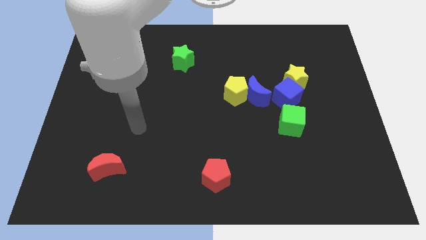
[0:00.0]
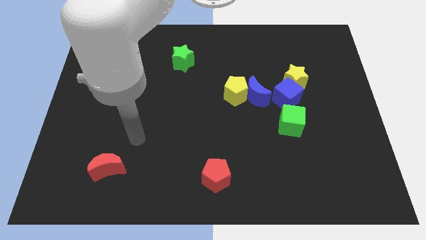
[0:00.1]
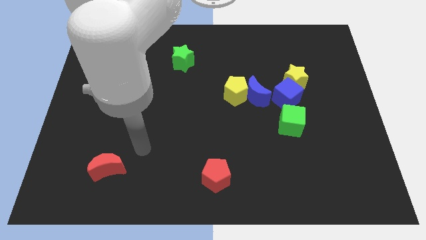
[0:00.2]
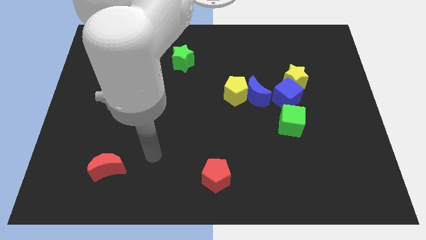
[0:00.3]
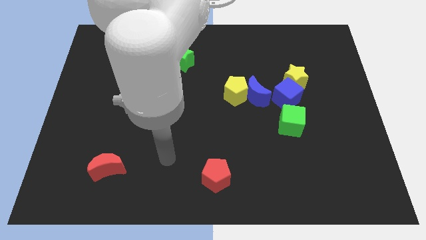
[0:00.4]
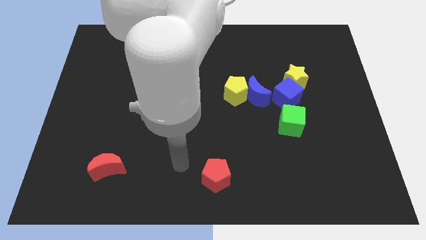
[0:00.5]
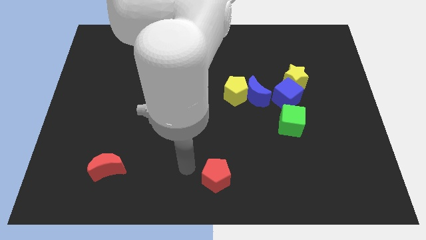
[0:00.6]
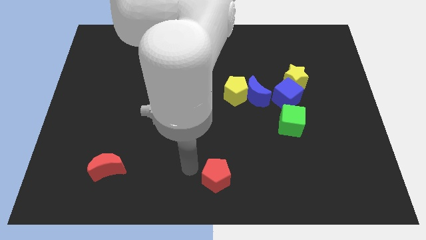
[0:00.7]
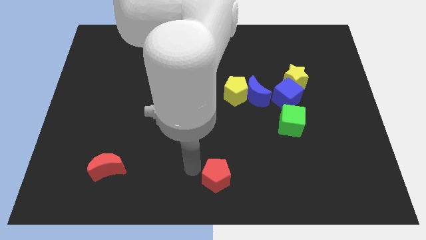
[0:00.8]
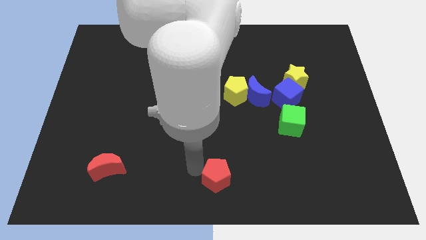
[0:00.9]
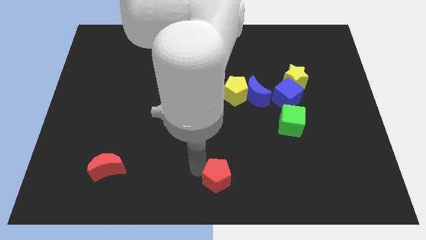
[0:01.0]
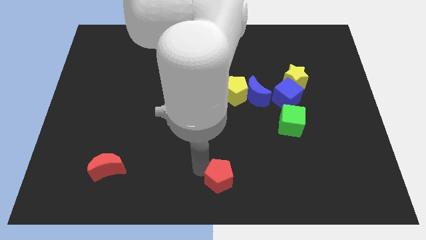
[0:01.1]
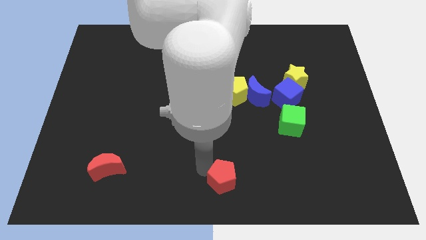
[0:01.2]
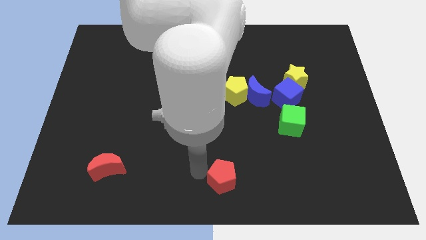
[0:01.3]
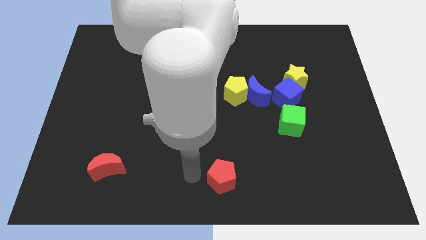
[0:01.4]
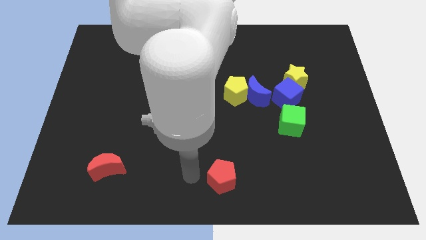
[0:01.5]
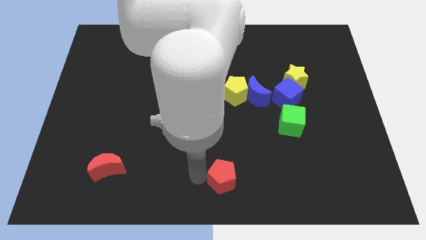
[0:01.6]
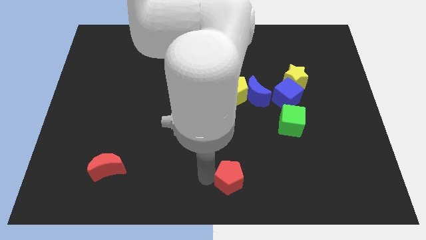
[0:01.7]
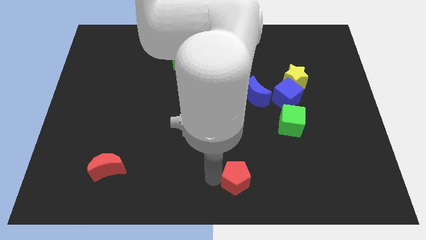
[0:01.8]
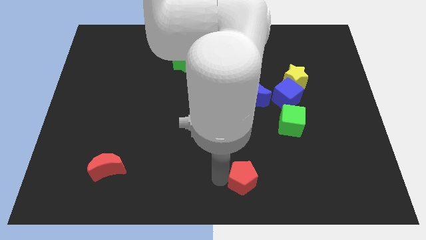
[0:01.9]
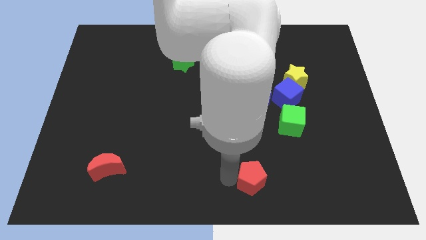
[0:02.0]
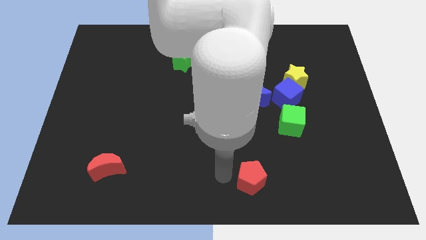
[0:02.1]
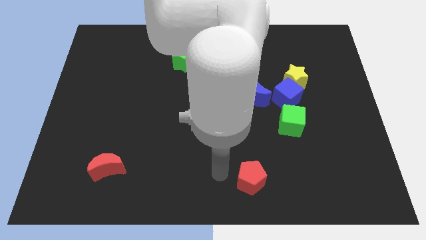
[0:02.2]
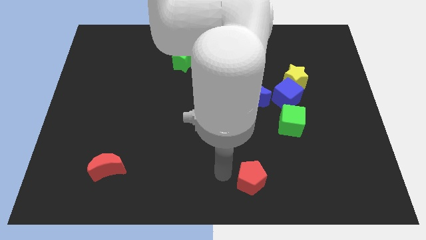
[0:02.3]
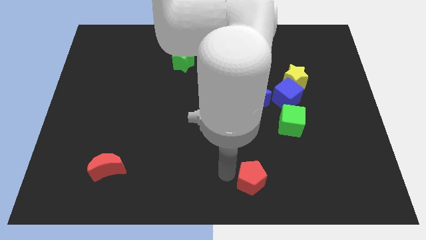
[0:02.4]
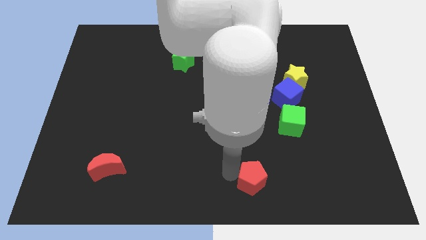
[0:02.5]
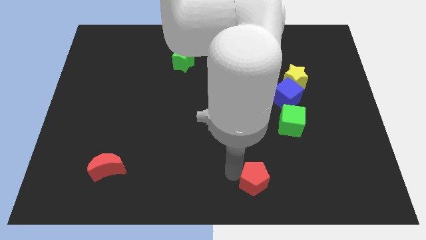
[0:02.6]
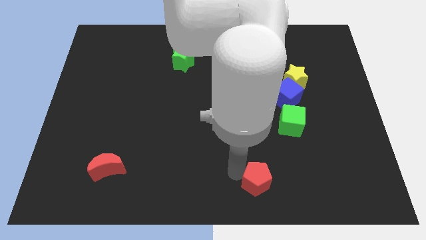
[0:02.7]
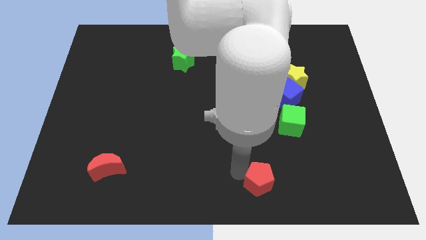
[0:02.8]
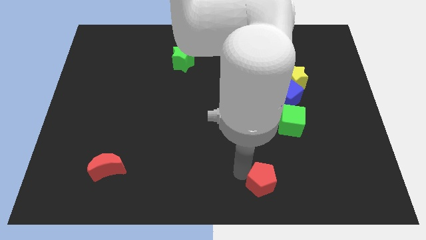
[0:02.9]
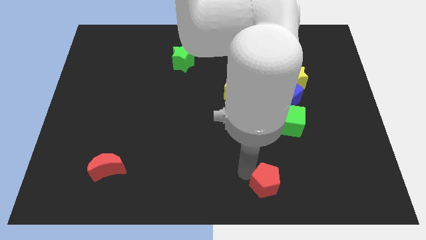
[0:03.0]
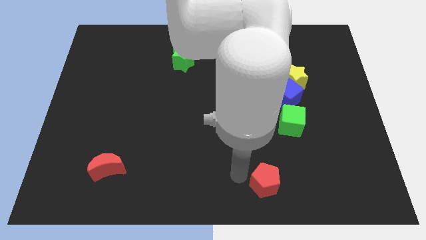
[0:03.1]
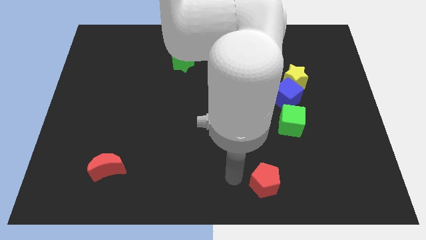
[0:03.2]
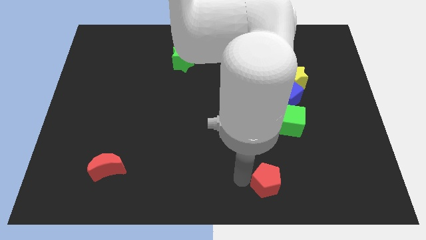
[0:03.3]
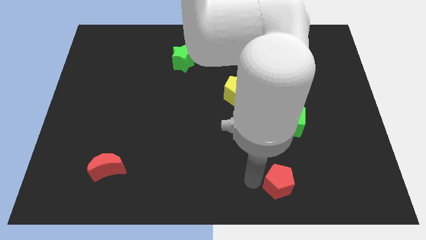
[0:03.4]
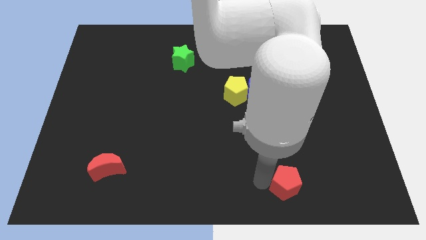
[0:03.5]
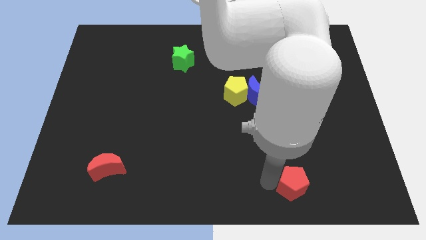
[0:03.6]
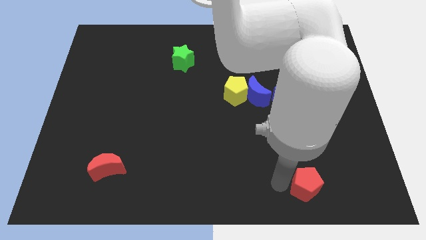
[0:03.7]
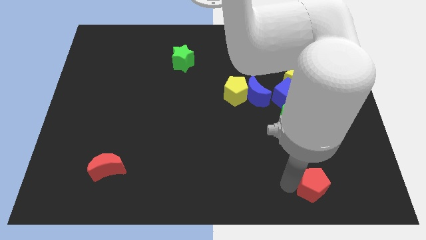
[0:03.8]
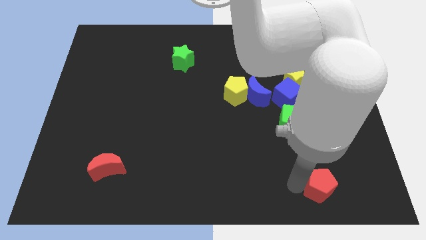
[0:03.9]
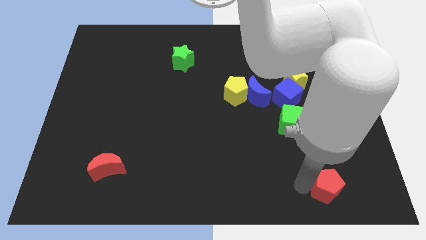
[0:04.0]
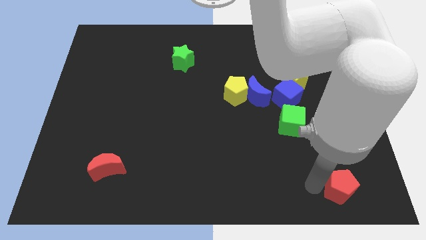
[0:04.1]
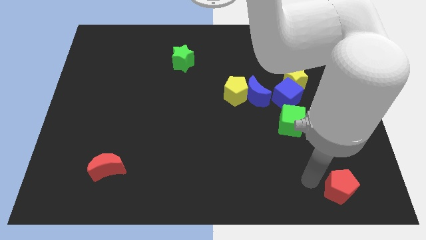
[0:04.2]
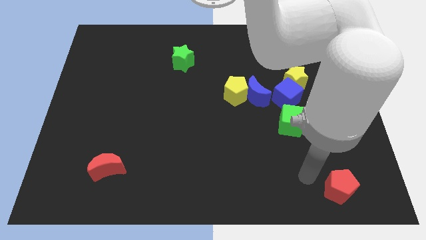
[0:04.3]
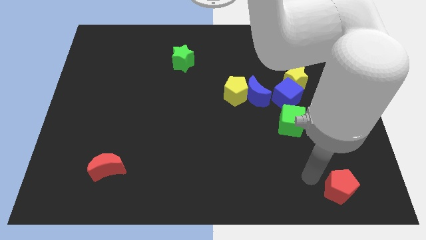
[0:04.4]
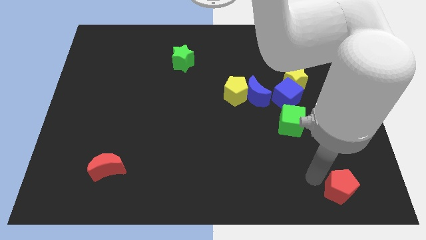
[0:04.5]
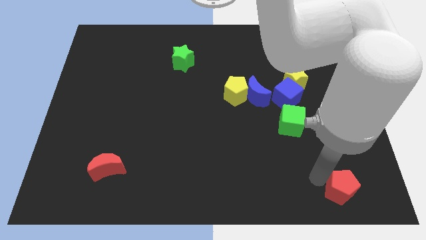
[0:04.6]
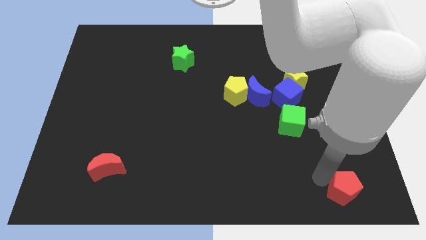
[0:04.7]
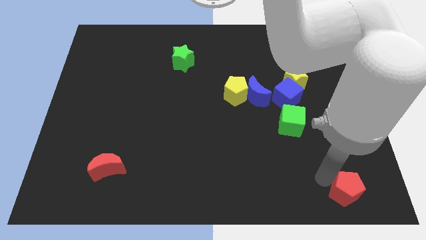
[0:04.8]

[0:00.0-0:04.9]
push the red pentagon to the bottom right of the board

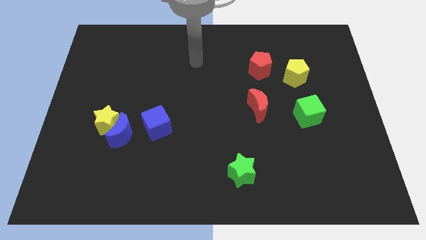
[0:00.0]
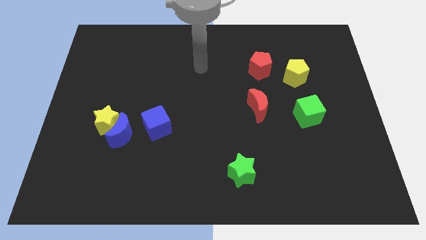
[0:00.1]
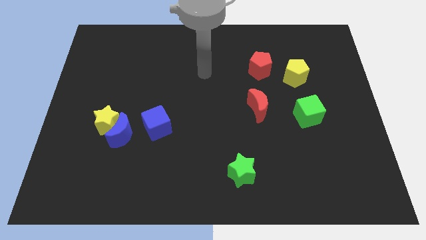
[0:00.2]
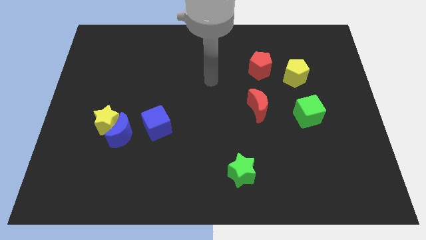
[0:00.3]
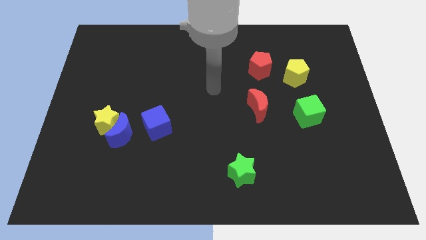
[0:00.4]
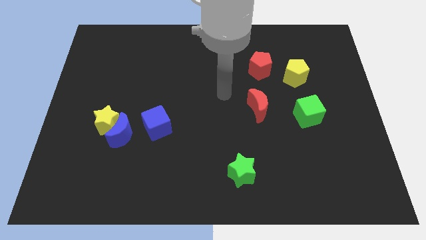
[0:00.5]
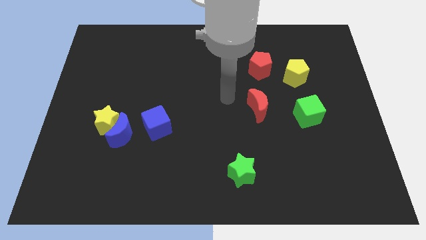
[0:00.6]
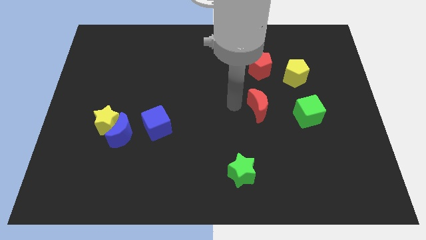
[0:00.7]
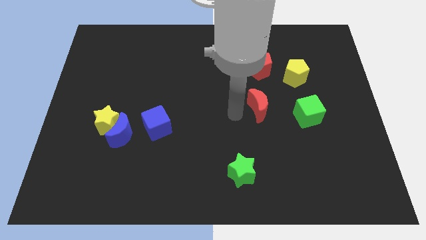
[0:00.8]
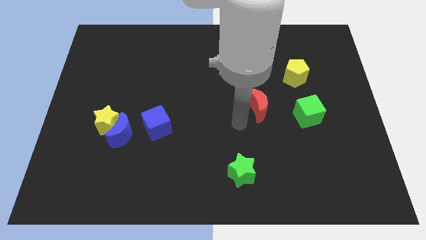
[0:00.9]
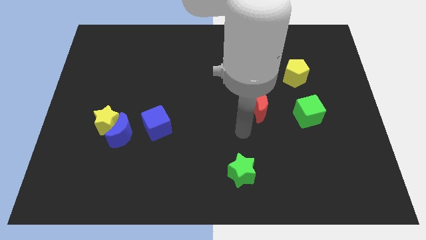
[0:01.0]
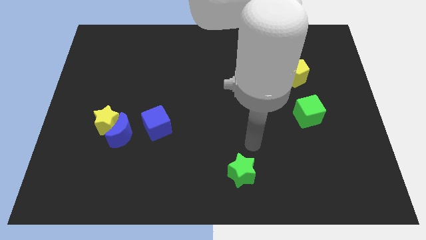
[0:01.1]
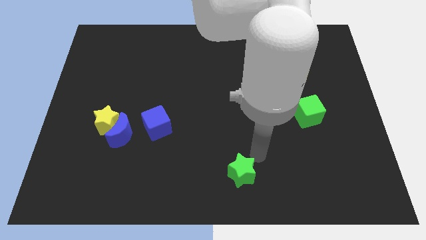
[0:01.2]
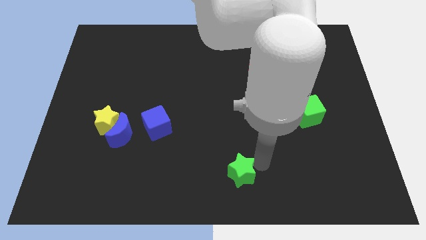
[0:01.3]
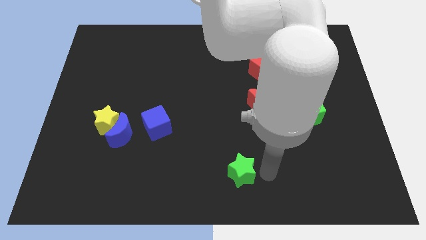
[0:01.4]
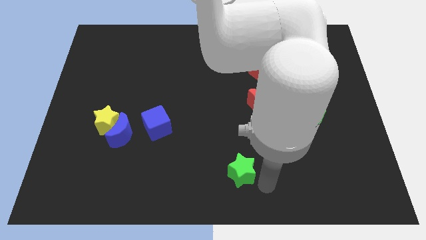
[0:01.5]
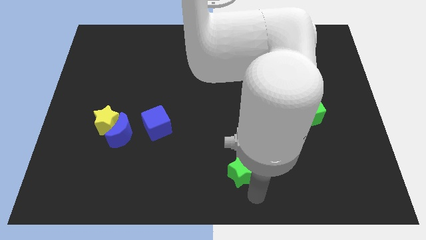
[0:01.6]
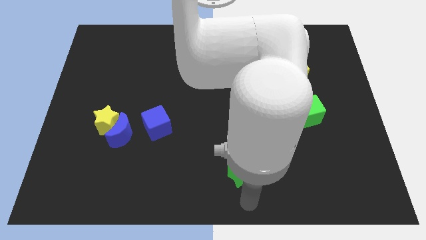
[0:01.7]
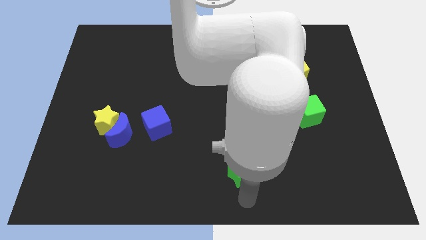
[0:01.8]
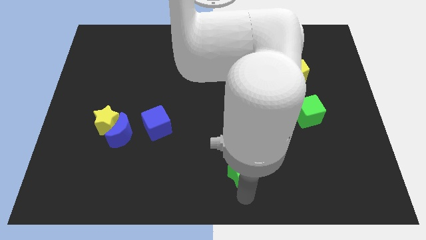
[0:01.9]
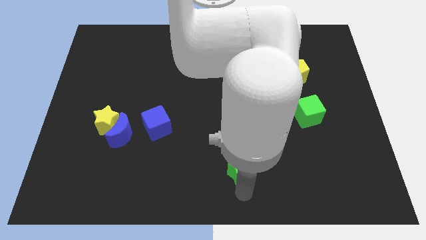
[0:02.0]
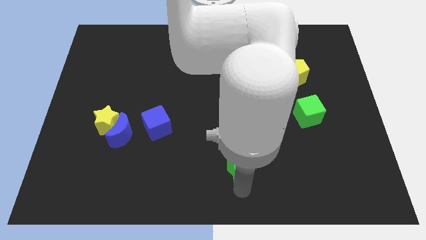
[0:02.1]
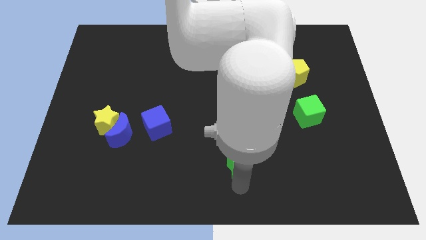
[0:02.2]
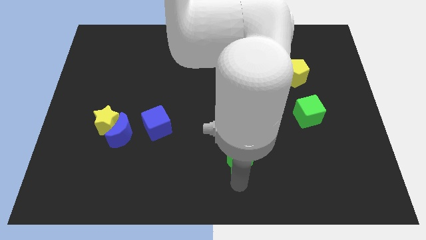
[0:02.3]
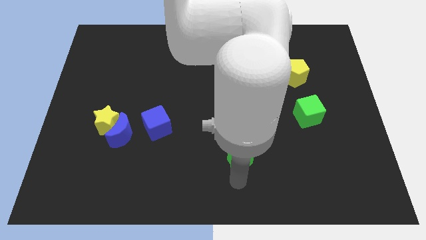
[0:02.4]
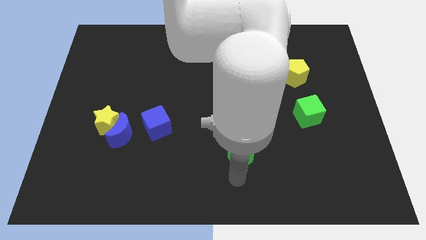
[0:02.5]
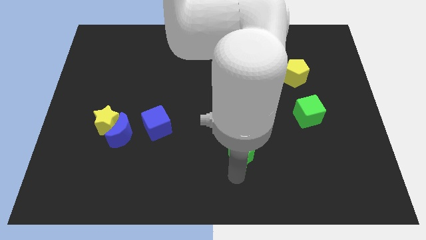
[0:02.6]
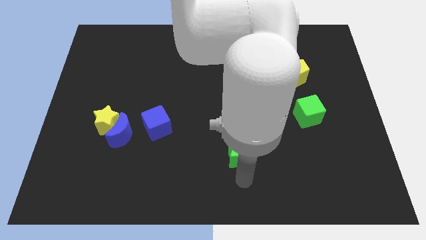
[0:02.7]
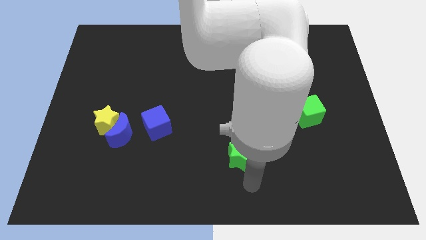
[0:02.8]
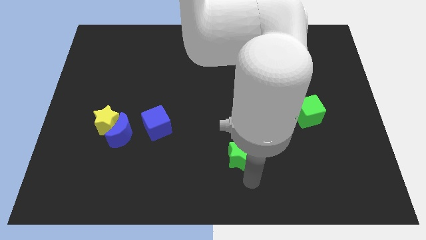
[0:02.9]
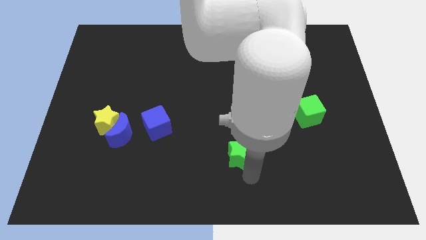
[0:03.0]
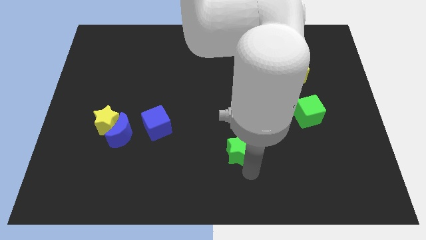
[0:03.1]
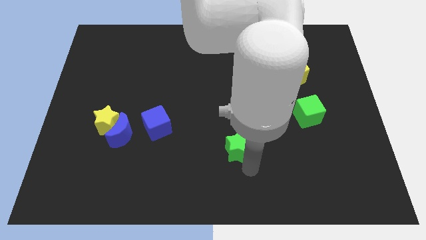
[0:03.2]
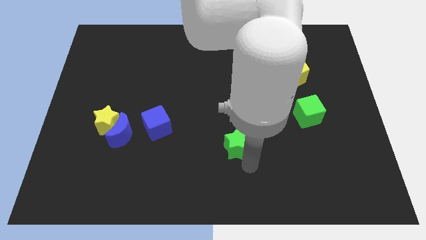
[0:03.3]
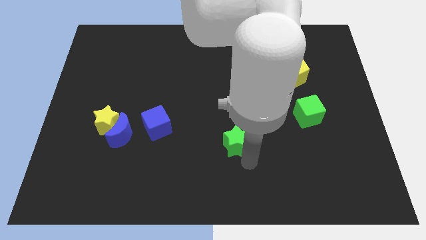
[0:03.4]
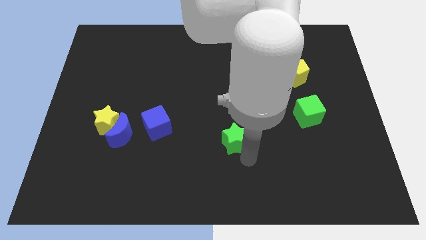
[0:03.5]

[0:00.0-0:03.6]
push the green star to the middle
